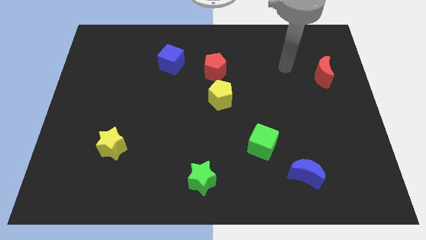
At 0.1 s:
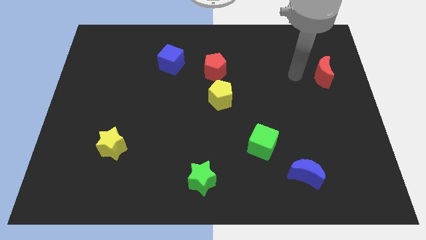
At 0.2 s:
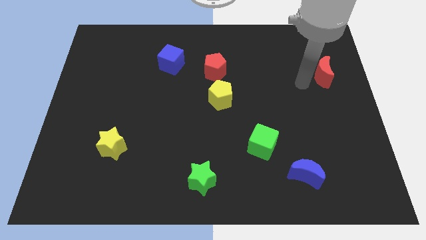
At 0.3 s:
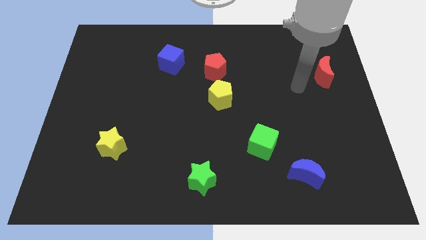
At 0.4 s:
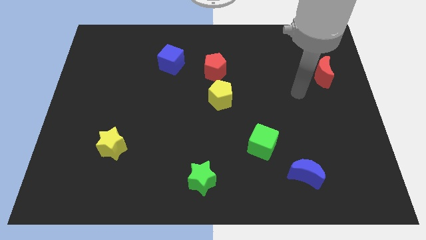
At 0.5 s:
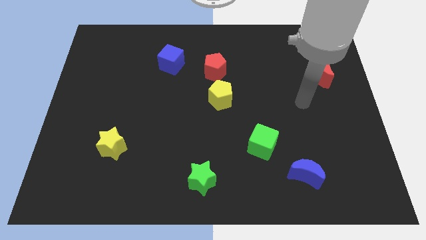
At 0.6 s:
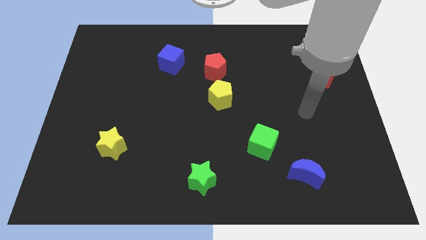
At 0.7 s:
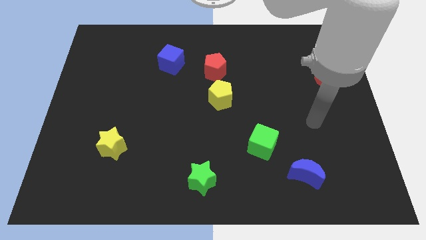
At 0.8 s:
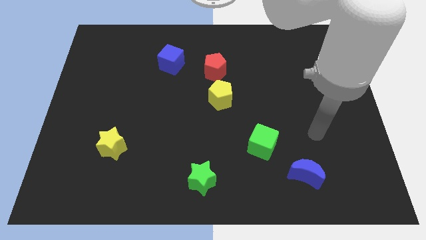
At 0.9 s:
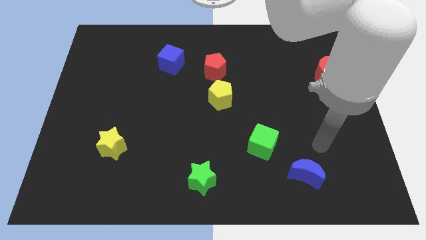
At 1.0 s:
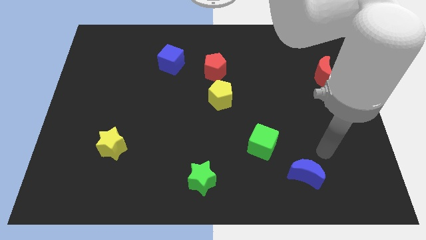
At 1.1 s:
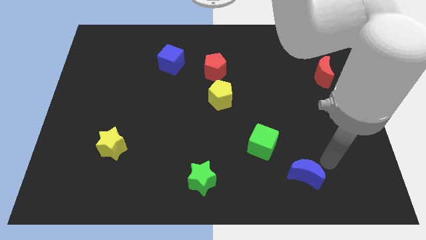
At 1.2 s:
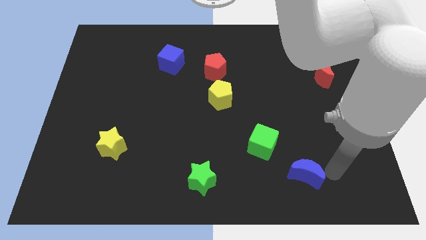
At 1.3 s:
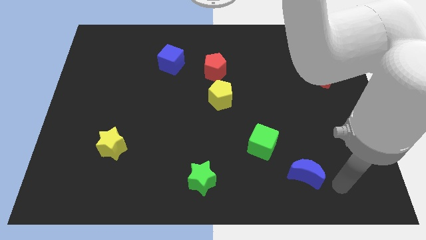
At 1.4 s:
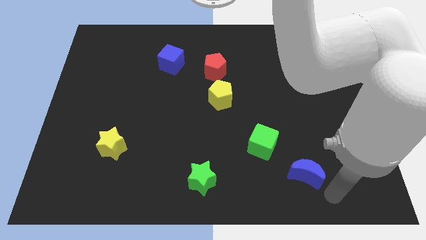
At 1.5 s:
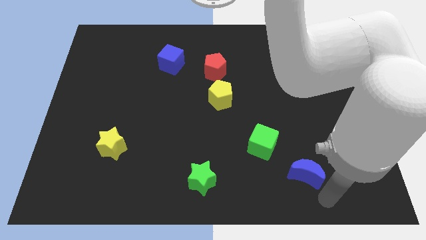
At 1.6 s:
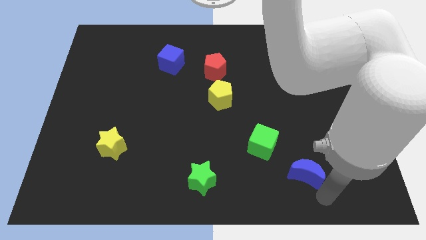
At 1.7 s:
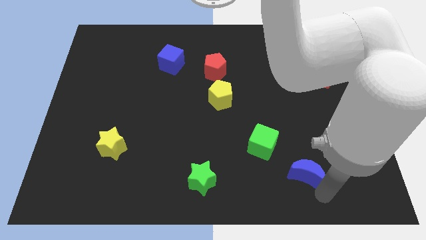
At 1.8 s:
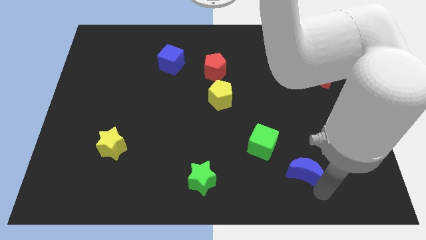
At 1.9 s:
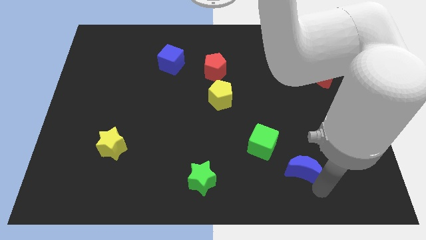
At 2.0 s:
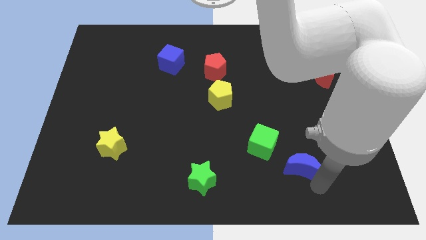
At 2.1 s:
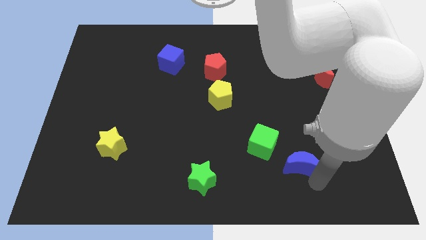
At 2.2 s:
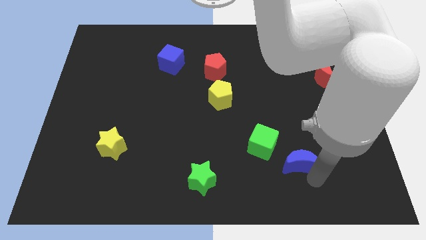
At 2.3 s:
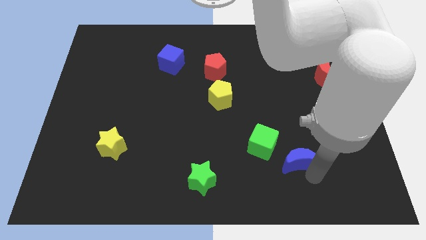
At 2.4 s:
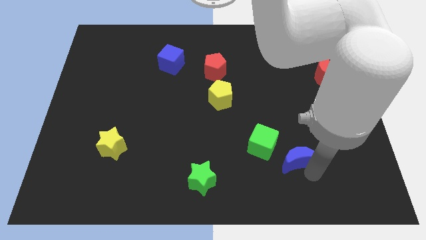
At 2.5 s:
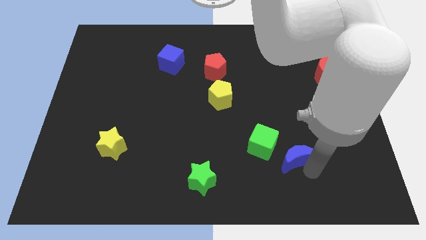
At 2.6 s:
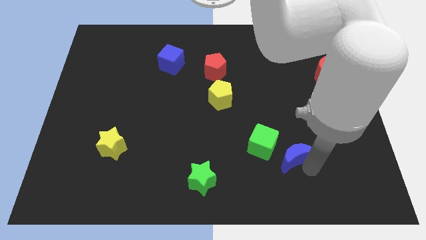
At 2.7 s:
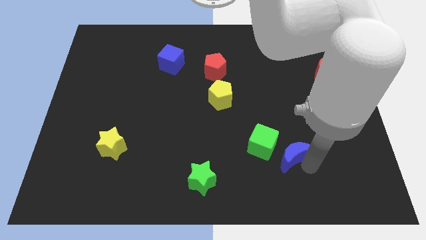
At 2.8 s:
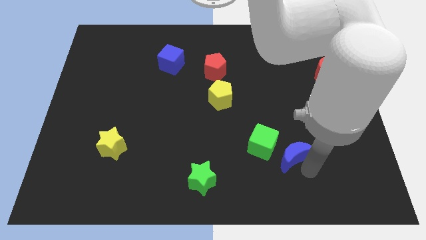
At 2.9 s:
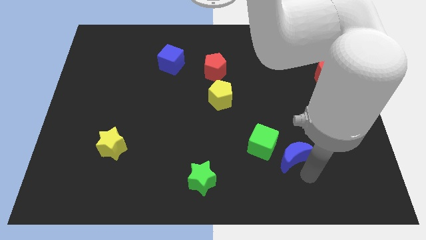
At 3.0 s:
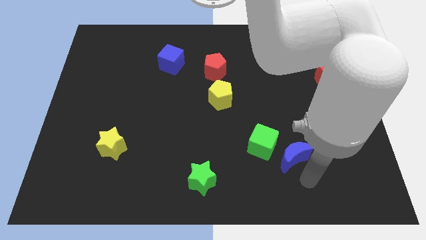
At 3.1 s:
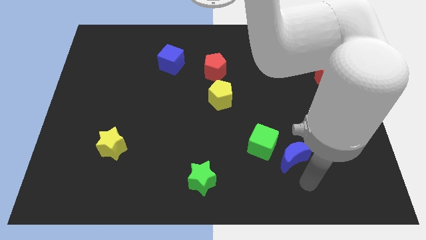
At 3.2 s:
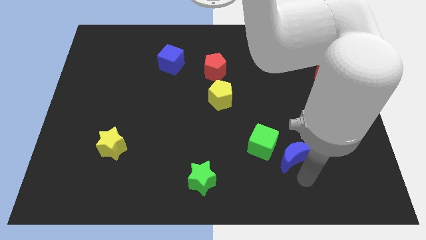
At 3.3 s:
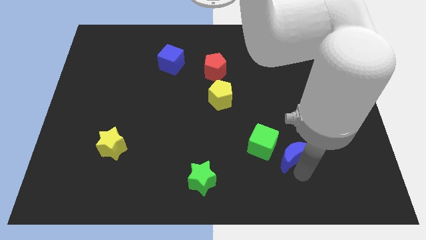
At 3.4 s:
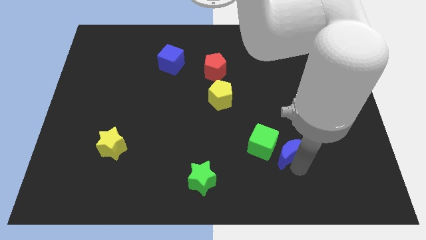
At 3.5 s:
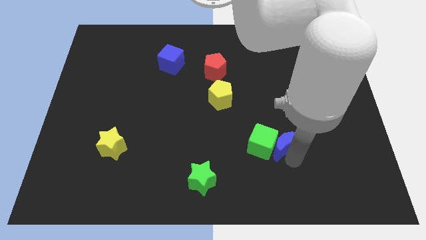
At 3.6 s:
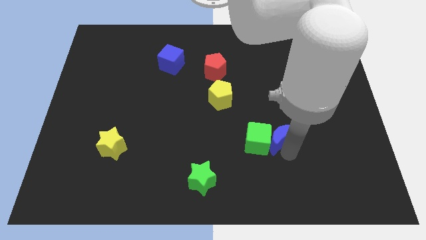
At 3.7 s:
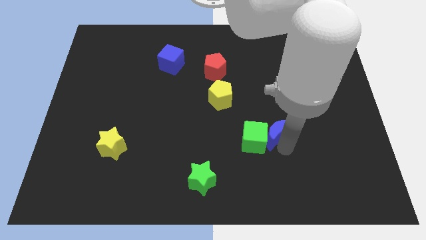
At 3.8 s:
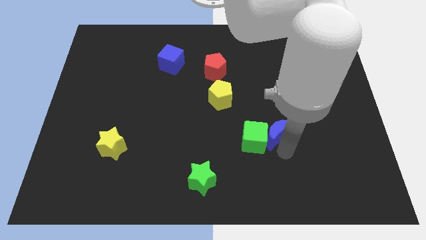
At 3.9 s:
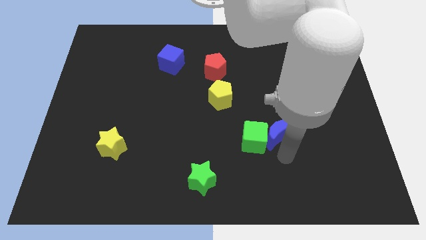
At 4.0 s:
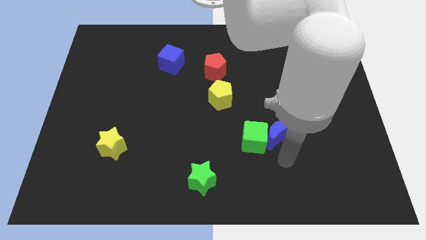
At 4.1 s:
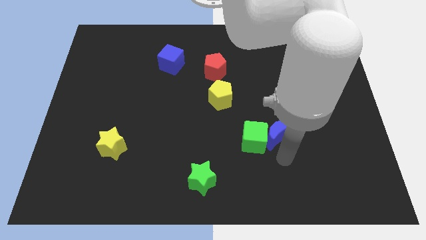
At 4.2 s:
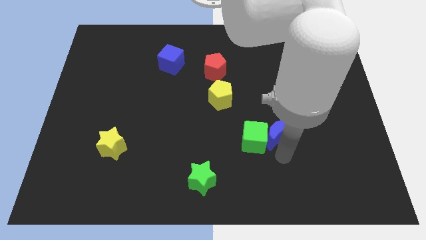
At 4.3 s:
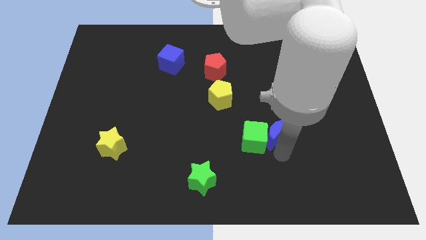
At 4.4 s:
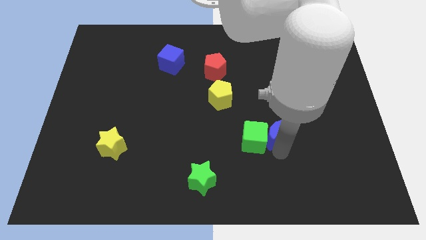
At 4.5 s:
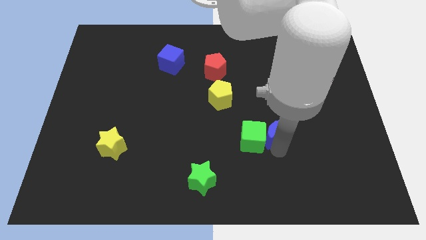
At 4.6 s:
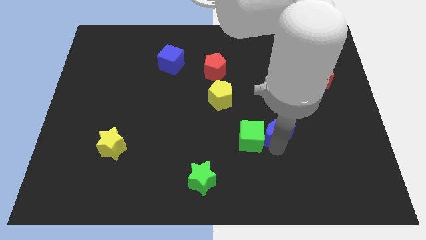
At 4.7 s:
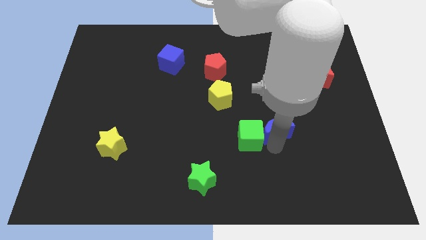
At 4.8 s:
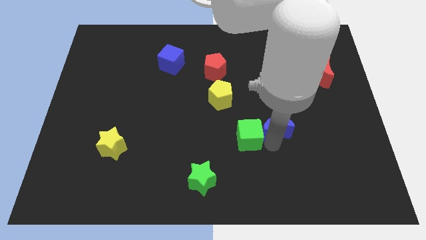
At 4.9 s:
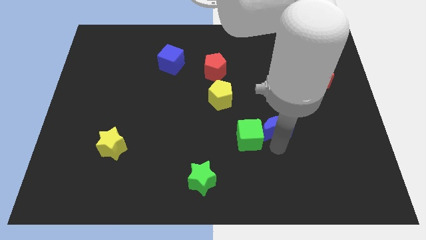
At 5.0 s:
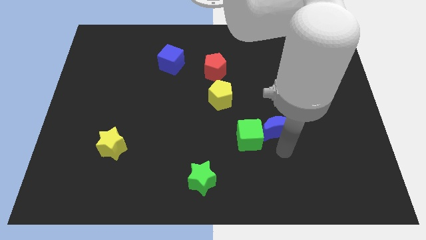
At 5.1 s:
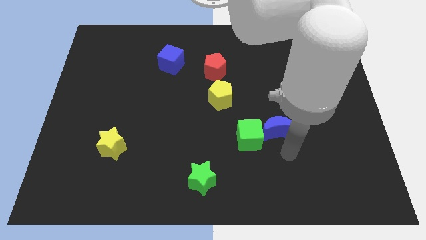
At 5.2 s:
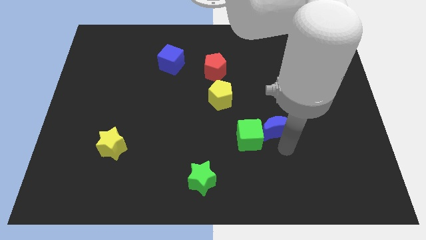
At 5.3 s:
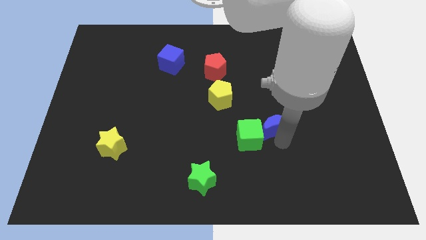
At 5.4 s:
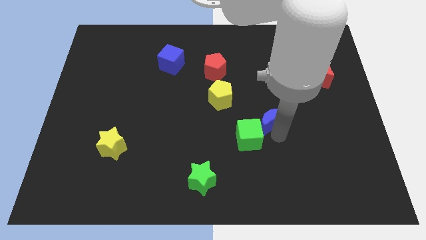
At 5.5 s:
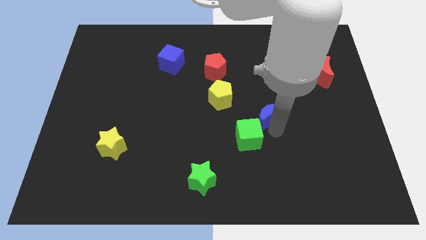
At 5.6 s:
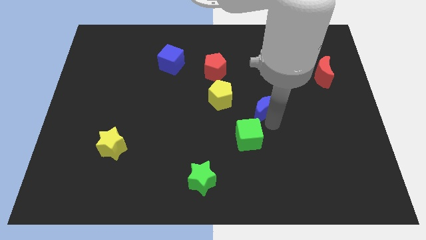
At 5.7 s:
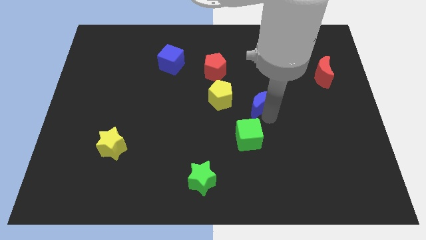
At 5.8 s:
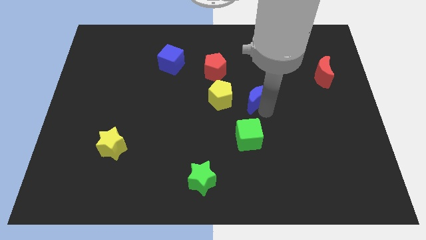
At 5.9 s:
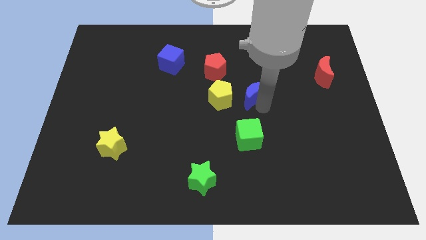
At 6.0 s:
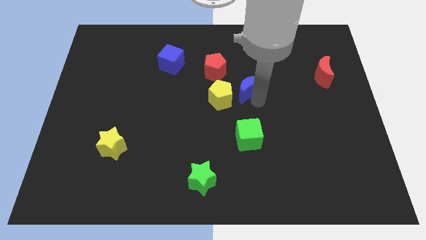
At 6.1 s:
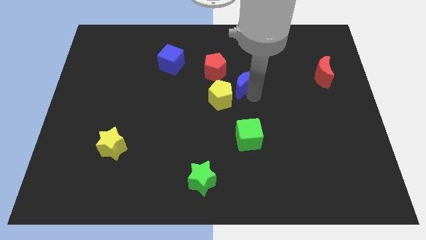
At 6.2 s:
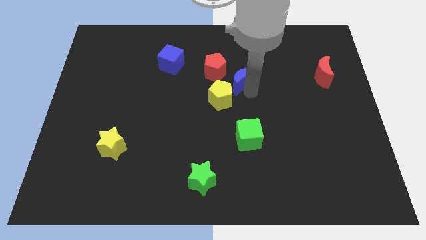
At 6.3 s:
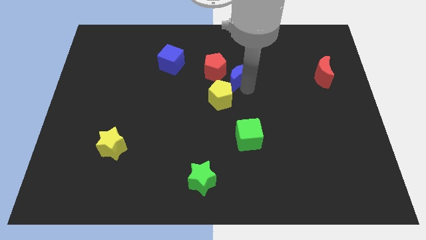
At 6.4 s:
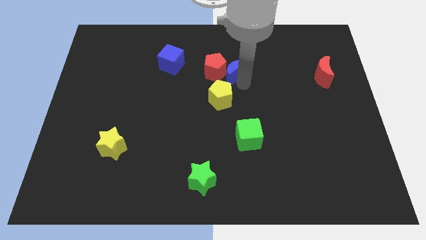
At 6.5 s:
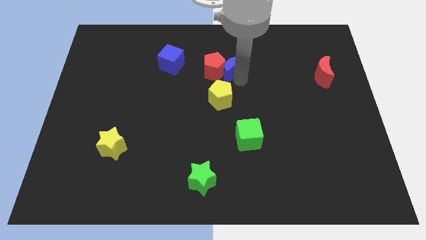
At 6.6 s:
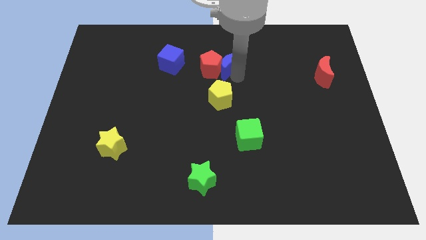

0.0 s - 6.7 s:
slide the blue moon just right of the blue cube

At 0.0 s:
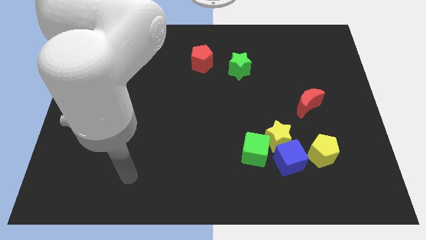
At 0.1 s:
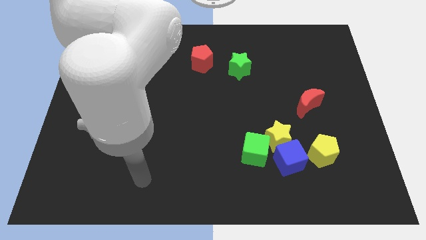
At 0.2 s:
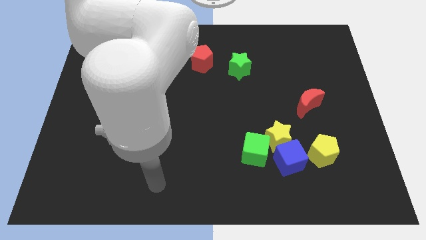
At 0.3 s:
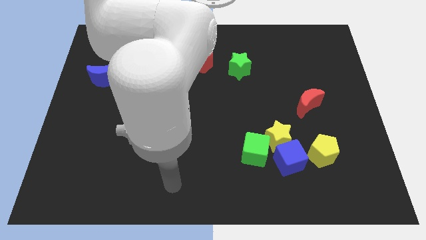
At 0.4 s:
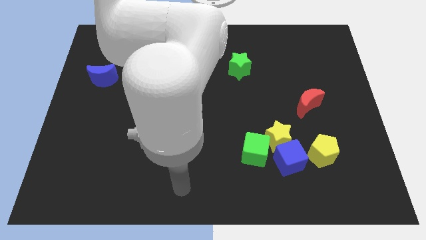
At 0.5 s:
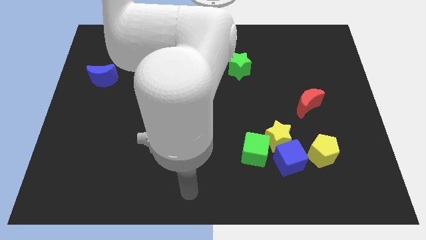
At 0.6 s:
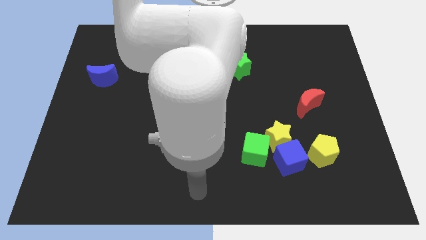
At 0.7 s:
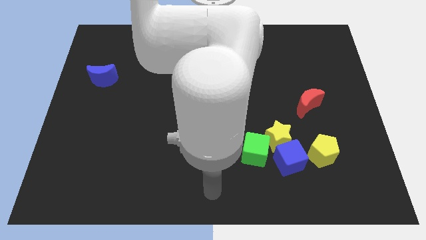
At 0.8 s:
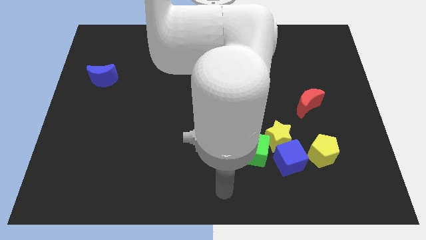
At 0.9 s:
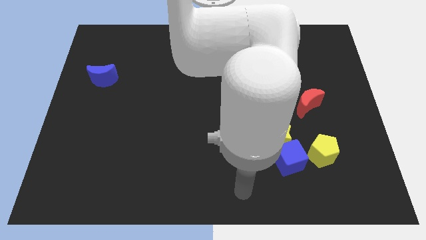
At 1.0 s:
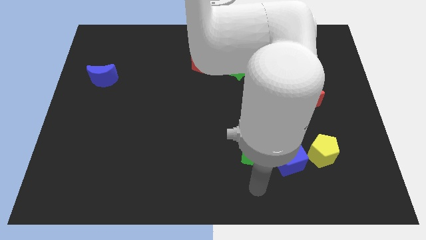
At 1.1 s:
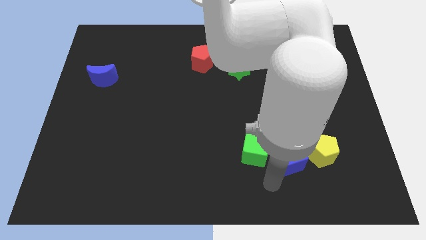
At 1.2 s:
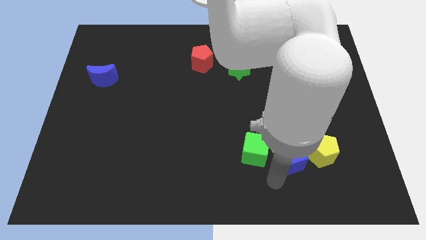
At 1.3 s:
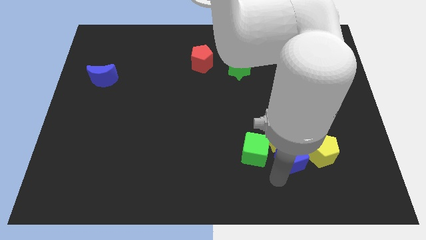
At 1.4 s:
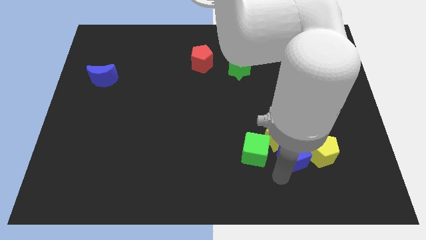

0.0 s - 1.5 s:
push the blue cube right of the yellow star
